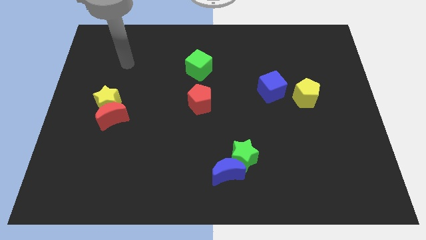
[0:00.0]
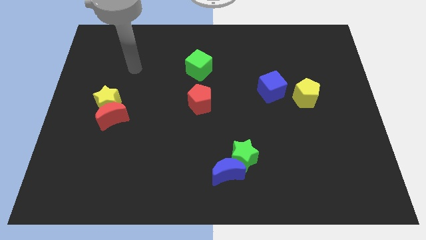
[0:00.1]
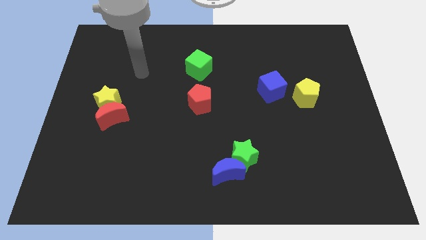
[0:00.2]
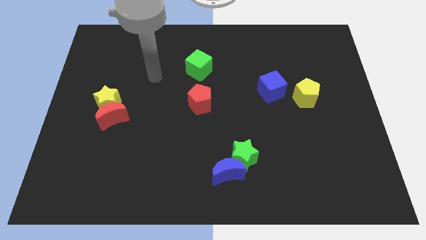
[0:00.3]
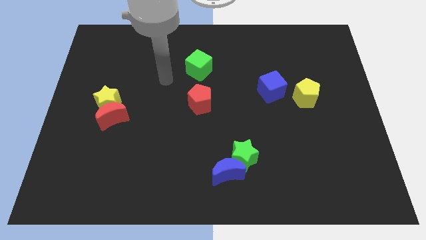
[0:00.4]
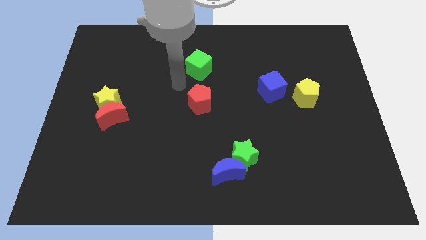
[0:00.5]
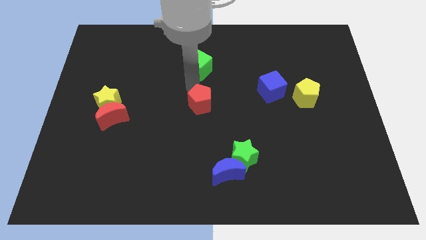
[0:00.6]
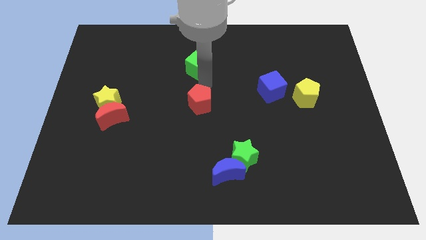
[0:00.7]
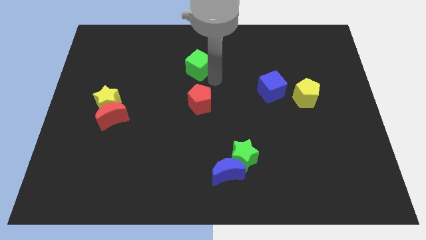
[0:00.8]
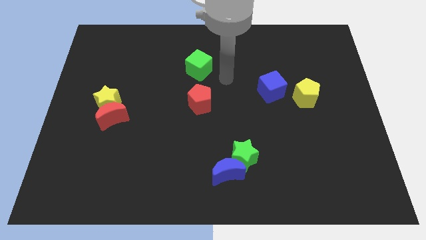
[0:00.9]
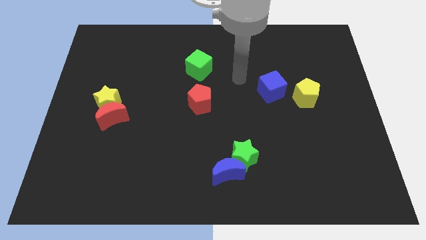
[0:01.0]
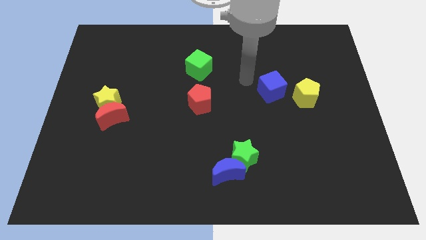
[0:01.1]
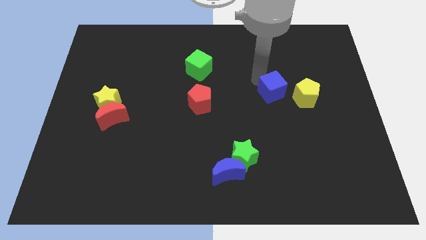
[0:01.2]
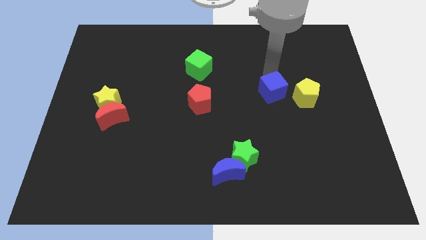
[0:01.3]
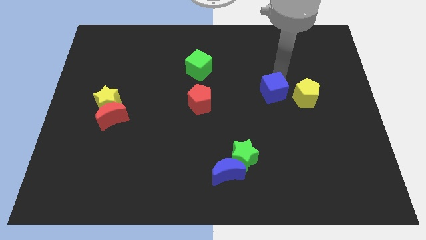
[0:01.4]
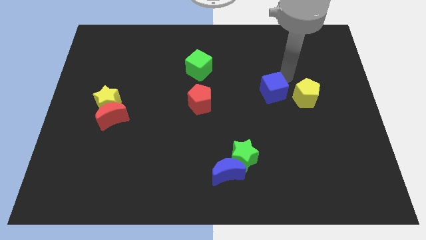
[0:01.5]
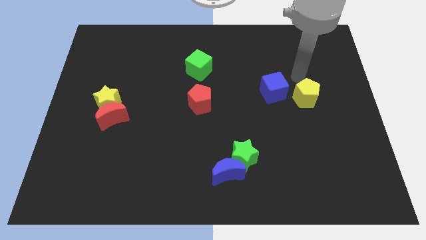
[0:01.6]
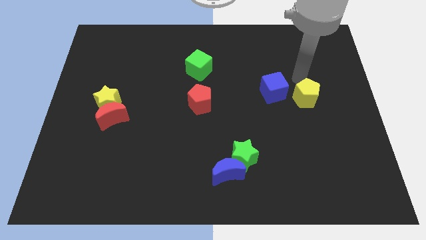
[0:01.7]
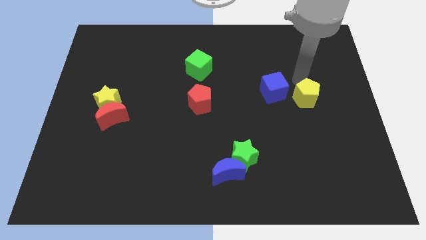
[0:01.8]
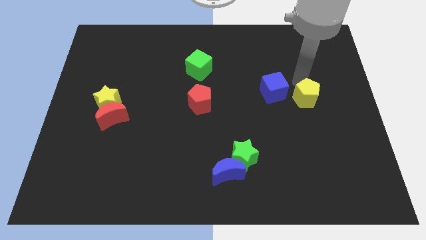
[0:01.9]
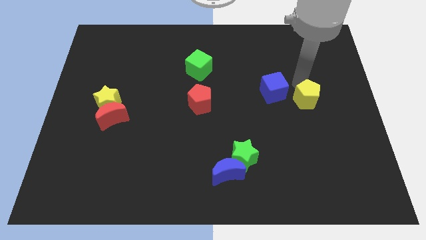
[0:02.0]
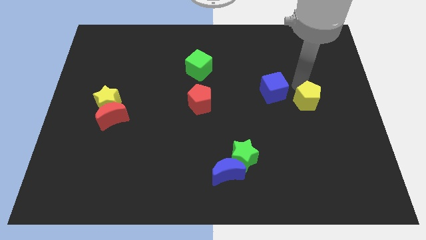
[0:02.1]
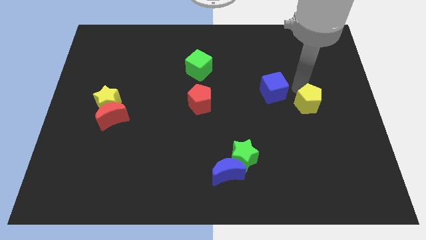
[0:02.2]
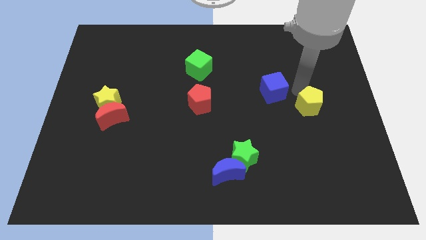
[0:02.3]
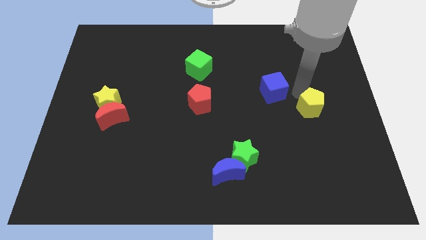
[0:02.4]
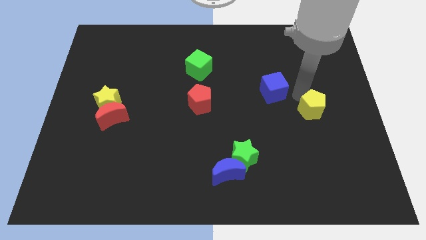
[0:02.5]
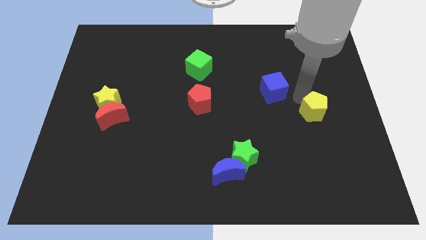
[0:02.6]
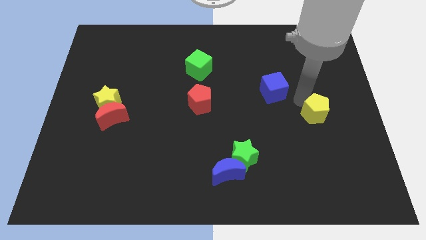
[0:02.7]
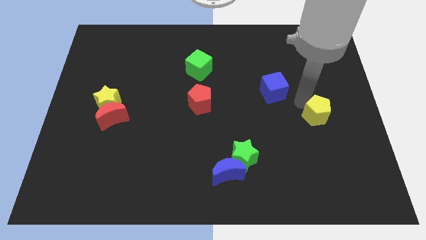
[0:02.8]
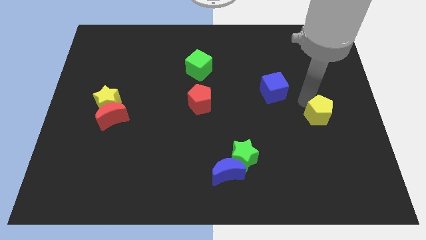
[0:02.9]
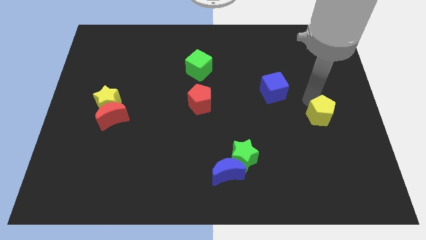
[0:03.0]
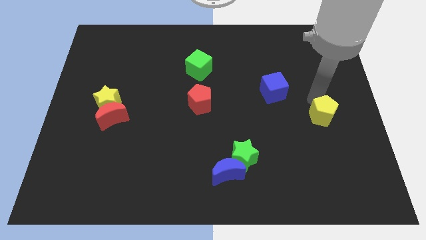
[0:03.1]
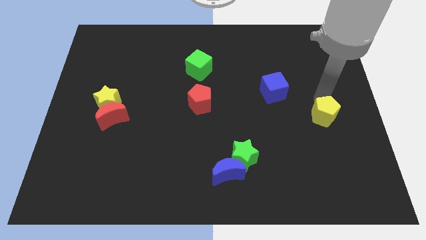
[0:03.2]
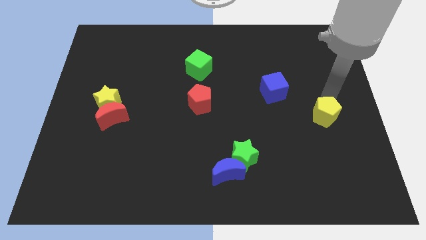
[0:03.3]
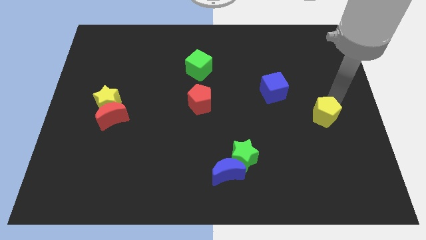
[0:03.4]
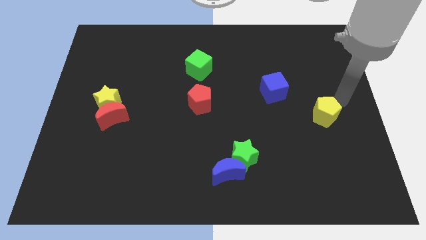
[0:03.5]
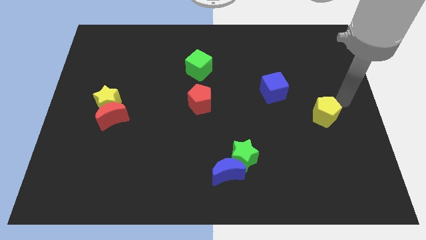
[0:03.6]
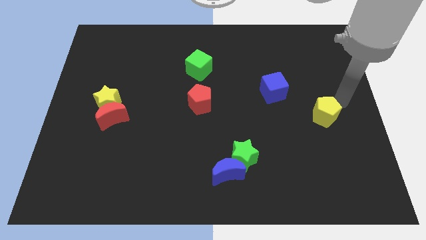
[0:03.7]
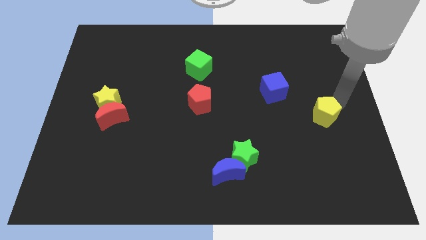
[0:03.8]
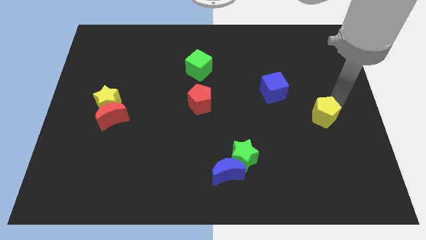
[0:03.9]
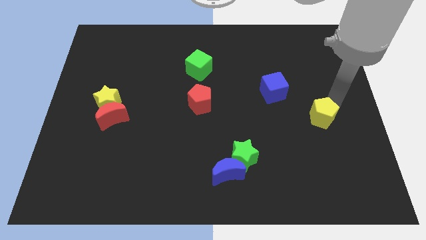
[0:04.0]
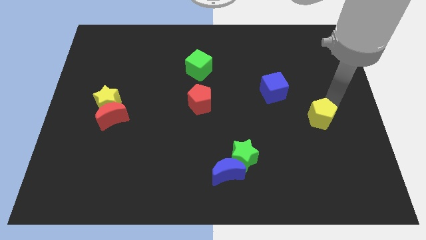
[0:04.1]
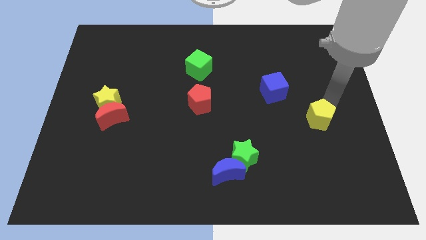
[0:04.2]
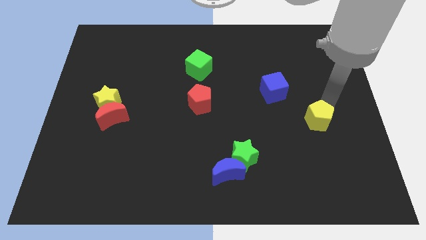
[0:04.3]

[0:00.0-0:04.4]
slide the yellow pentagon a little down

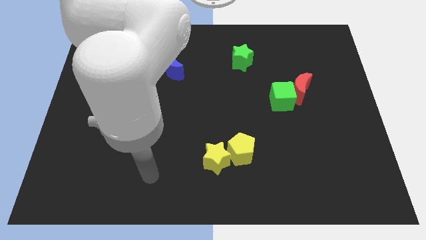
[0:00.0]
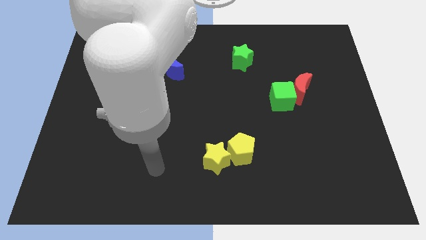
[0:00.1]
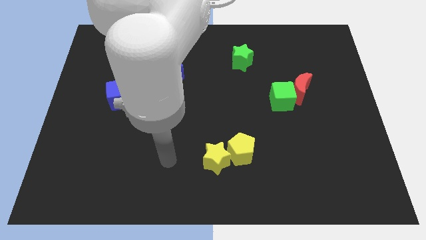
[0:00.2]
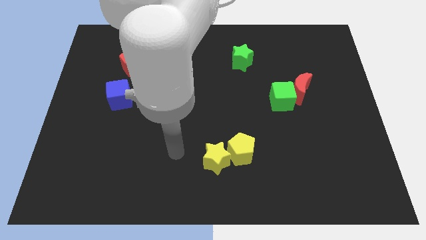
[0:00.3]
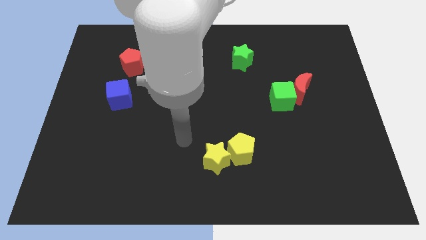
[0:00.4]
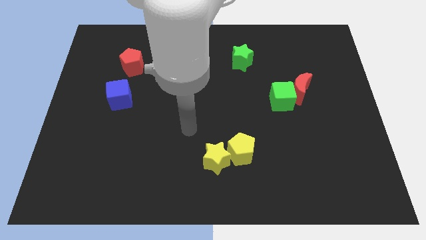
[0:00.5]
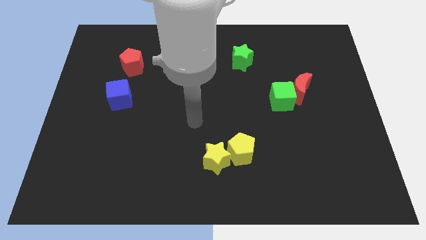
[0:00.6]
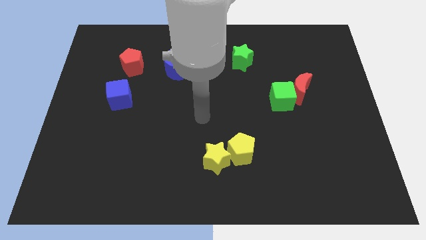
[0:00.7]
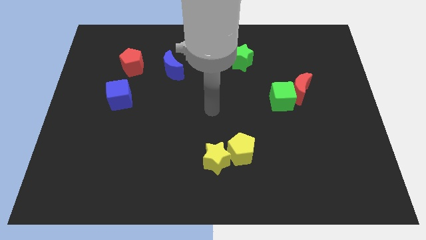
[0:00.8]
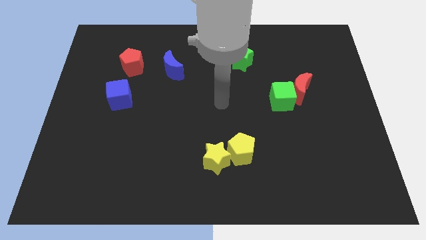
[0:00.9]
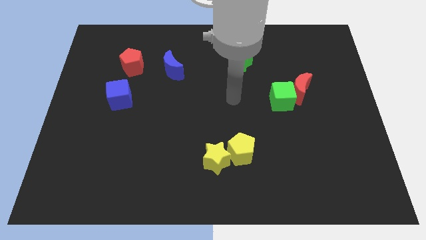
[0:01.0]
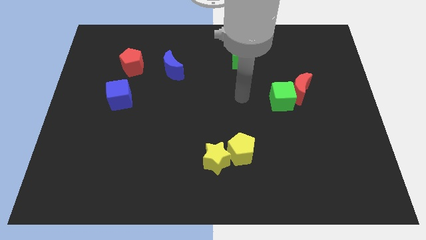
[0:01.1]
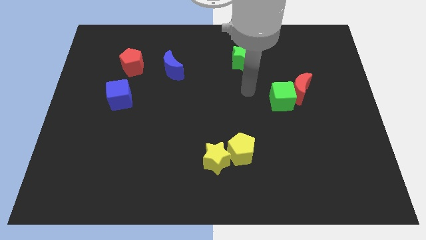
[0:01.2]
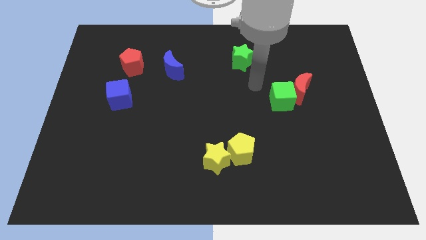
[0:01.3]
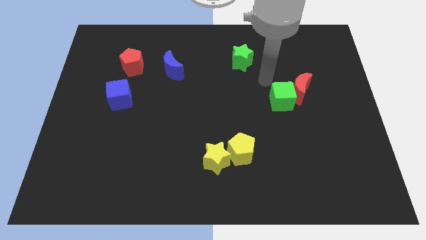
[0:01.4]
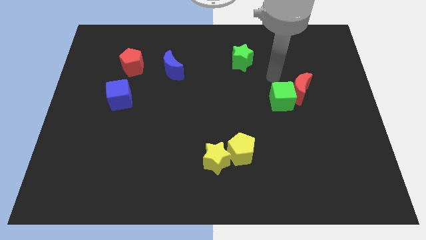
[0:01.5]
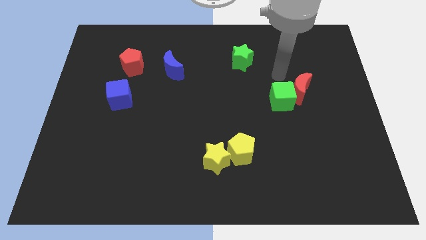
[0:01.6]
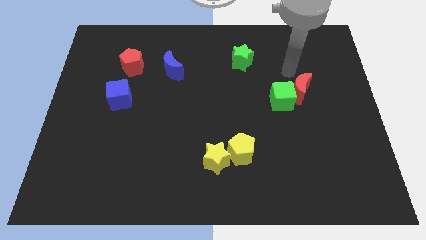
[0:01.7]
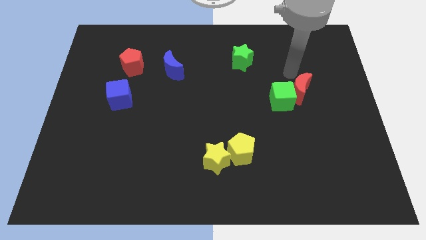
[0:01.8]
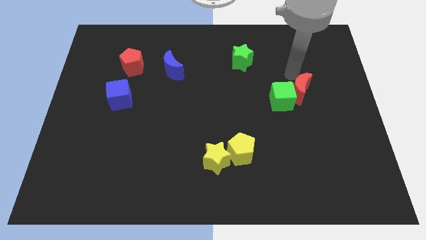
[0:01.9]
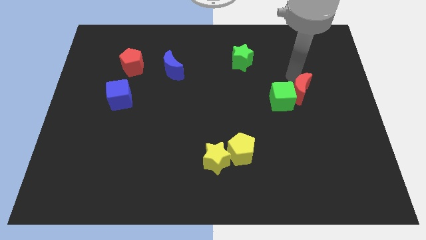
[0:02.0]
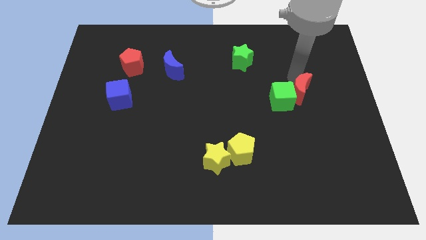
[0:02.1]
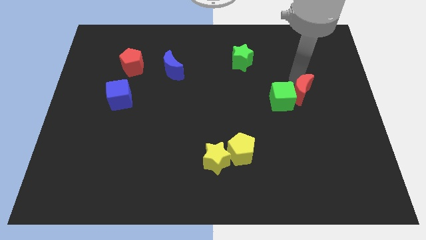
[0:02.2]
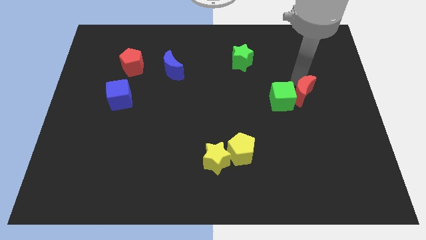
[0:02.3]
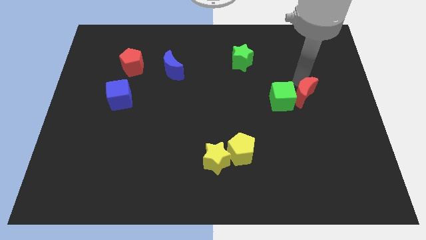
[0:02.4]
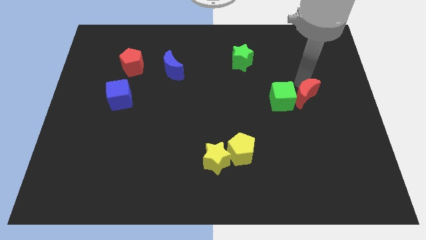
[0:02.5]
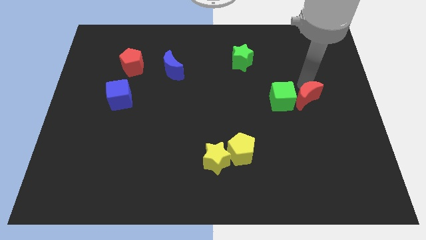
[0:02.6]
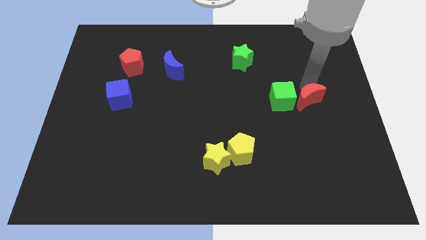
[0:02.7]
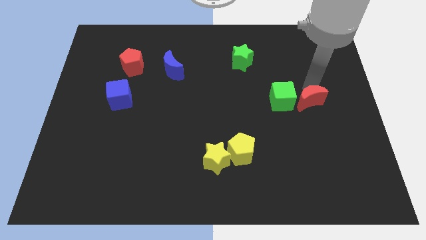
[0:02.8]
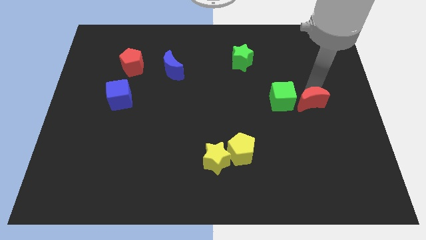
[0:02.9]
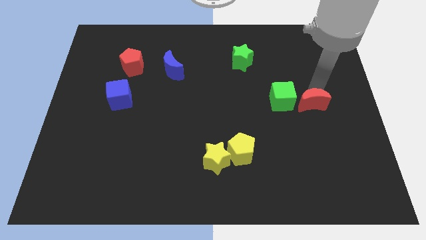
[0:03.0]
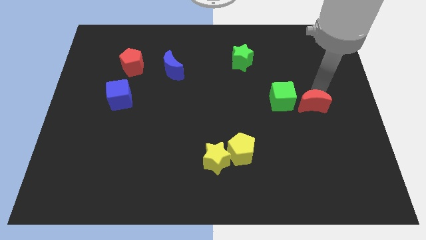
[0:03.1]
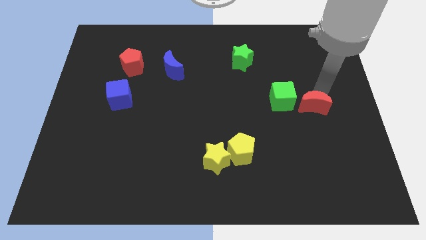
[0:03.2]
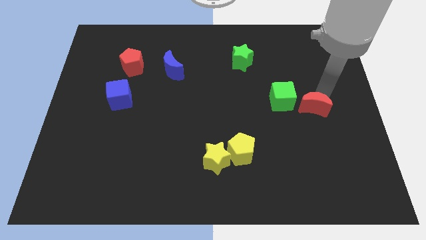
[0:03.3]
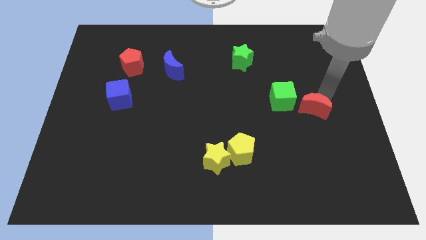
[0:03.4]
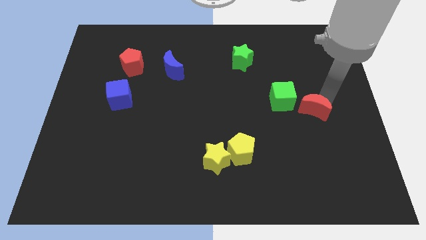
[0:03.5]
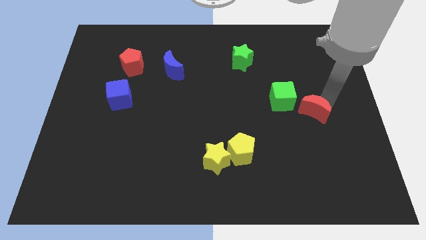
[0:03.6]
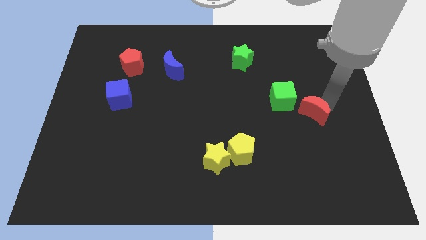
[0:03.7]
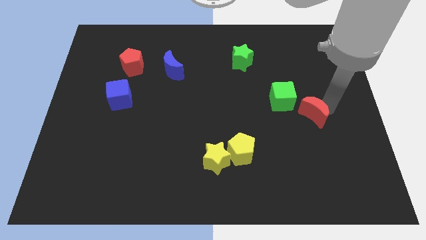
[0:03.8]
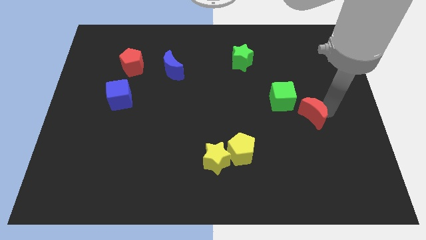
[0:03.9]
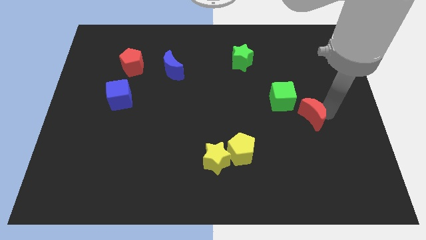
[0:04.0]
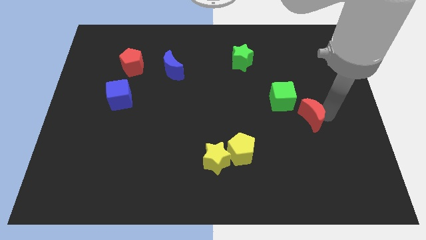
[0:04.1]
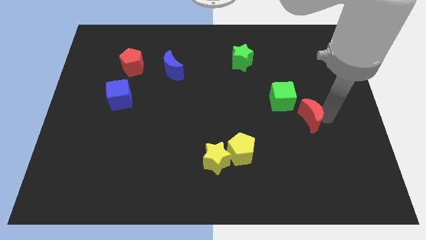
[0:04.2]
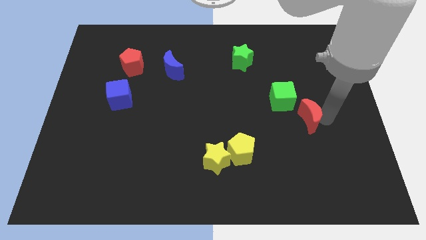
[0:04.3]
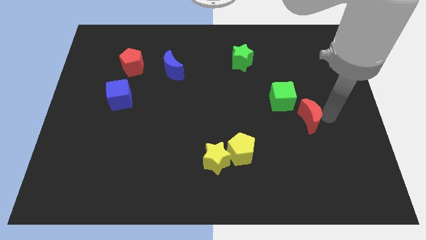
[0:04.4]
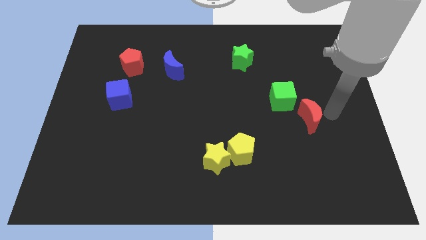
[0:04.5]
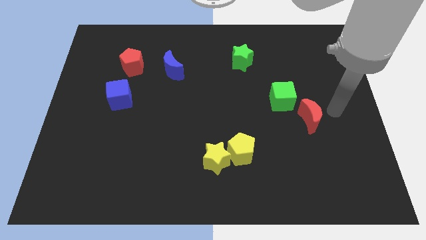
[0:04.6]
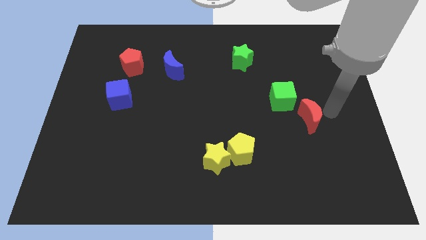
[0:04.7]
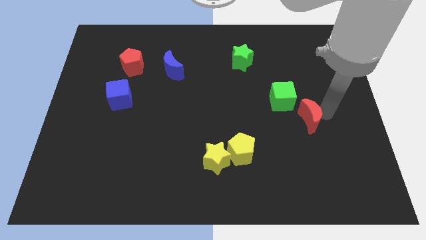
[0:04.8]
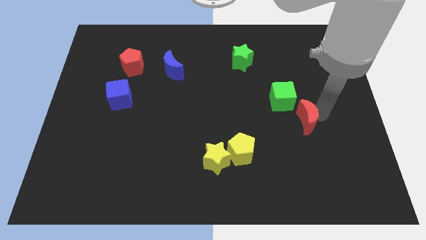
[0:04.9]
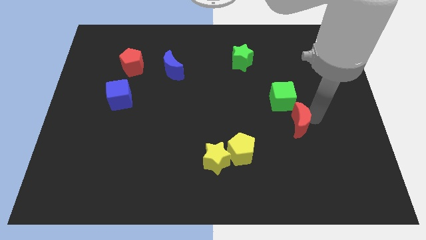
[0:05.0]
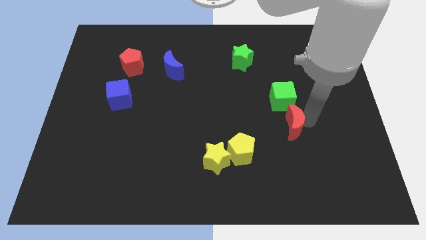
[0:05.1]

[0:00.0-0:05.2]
slightly slide the red moon downwards and left
